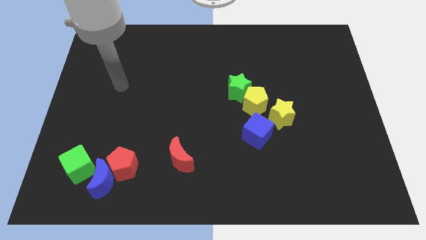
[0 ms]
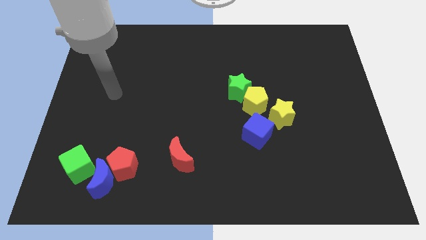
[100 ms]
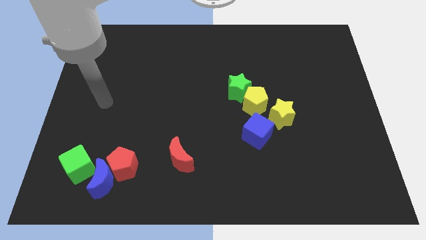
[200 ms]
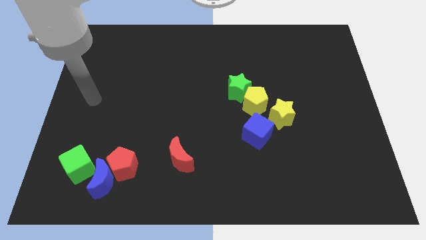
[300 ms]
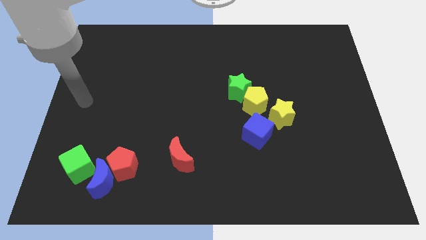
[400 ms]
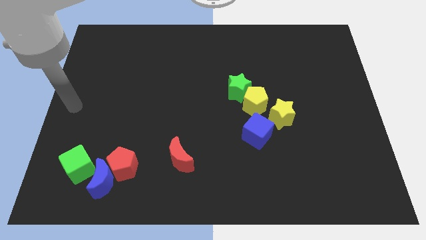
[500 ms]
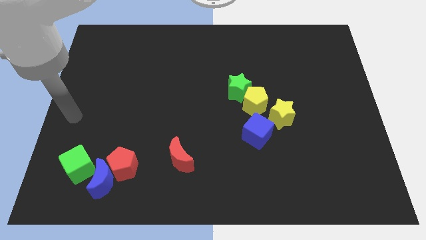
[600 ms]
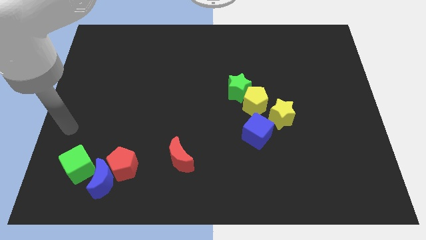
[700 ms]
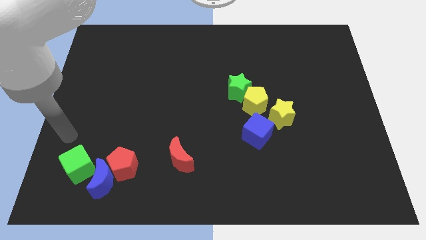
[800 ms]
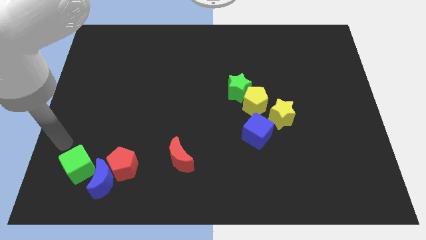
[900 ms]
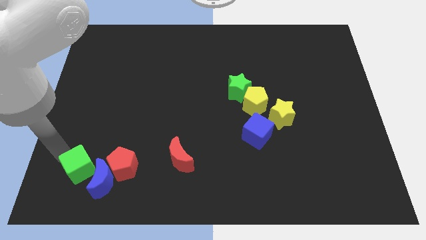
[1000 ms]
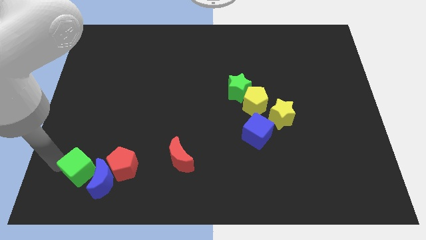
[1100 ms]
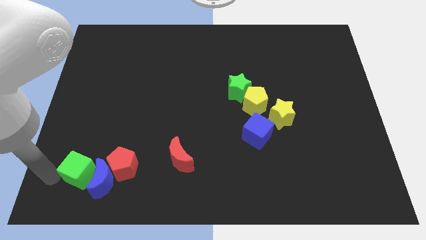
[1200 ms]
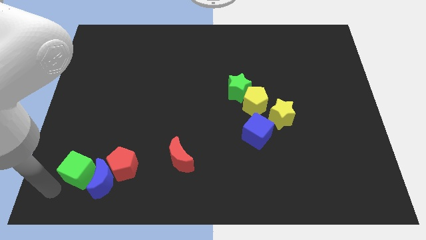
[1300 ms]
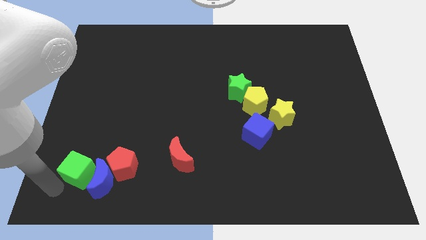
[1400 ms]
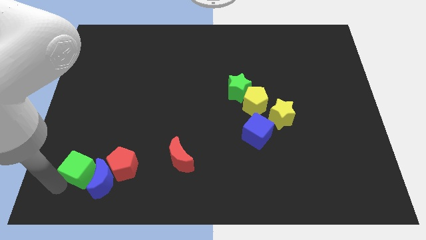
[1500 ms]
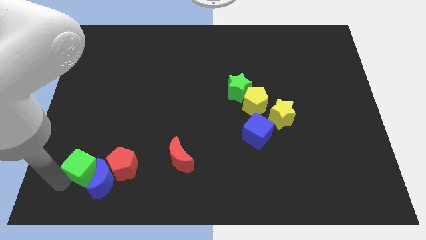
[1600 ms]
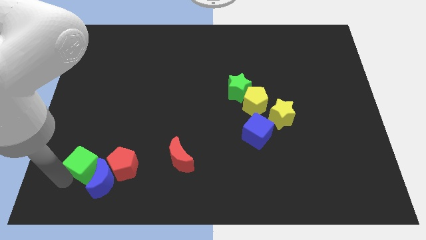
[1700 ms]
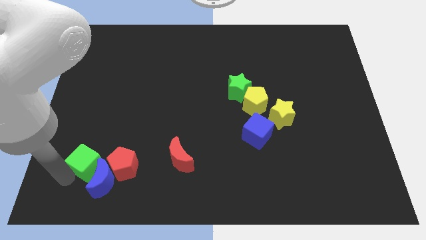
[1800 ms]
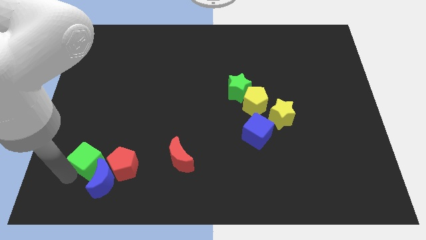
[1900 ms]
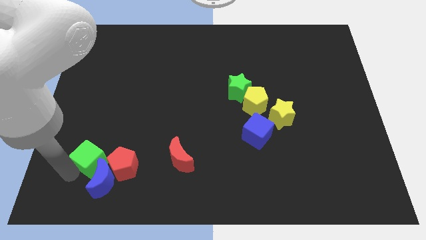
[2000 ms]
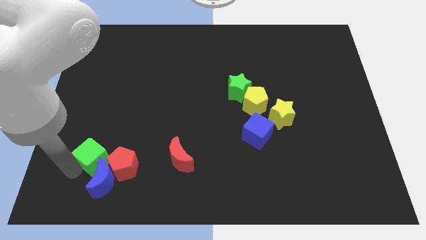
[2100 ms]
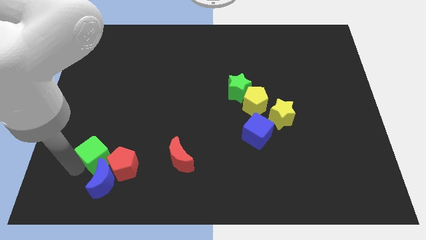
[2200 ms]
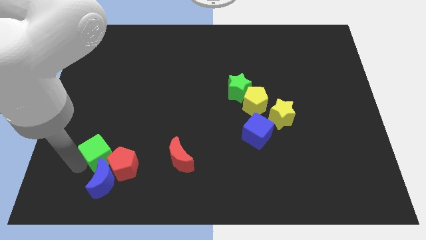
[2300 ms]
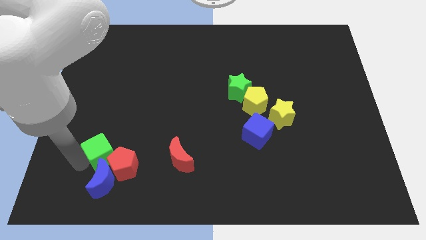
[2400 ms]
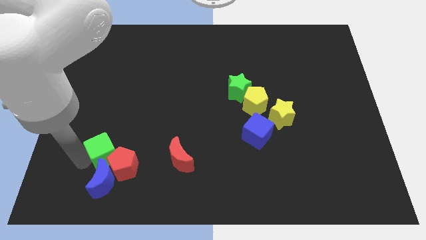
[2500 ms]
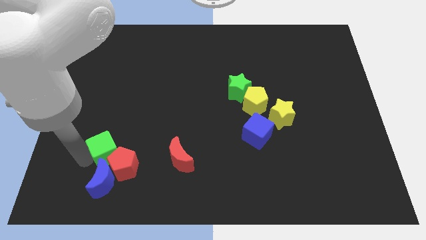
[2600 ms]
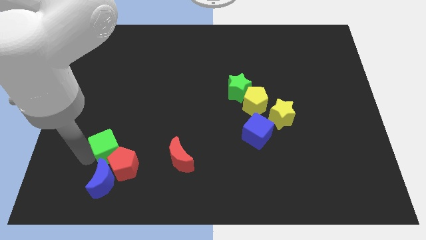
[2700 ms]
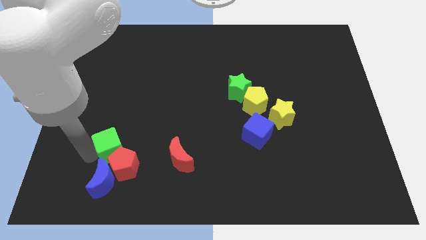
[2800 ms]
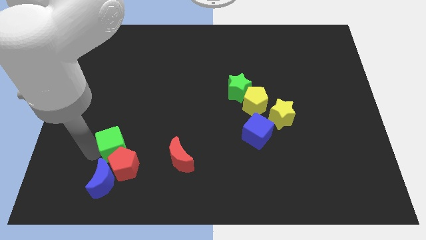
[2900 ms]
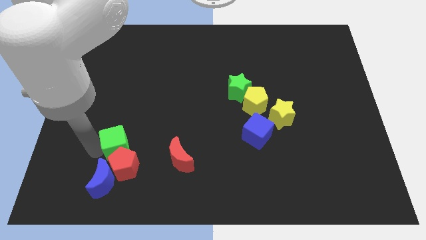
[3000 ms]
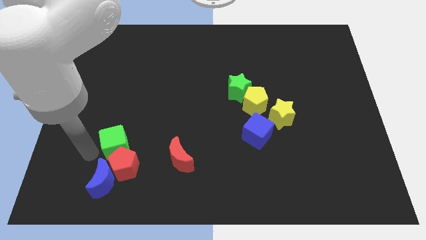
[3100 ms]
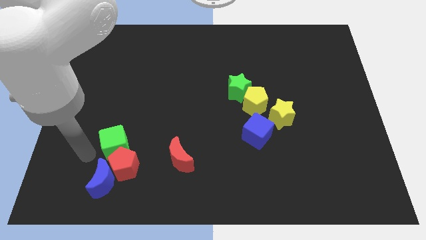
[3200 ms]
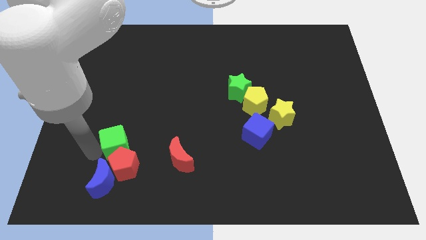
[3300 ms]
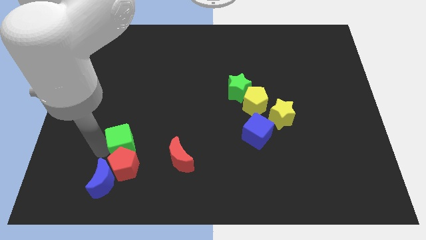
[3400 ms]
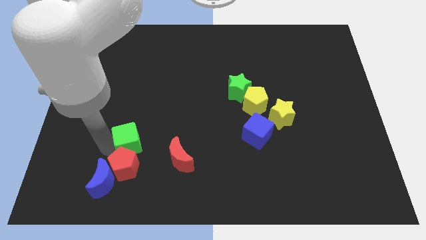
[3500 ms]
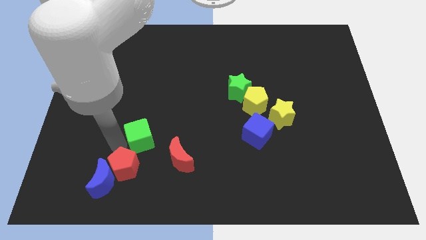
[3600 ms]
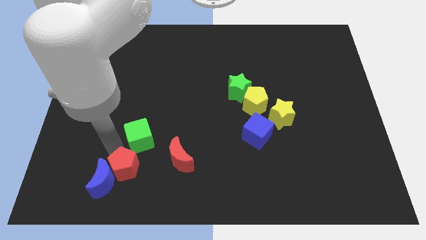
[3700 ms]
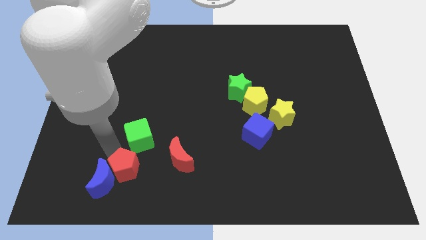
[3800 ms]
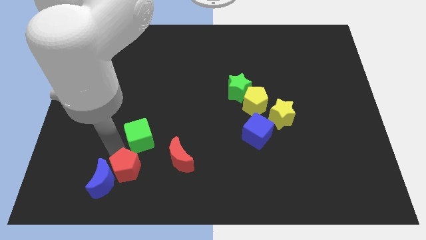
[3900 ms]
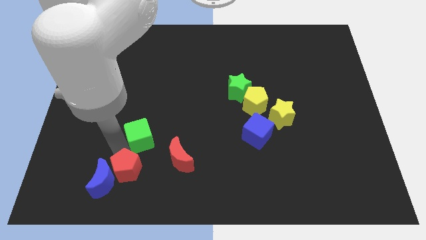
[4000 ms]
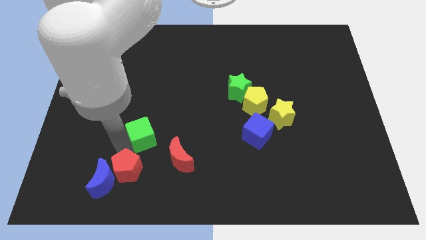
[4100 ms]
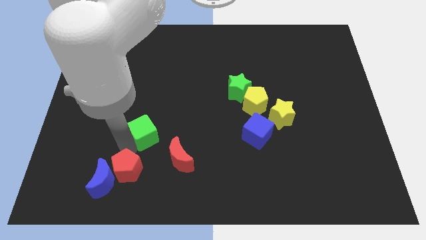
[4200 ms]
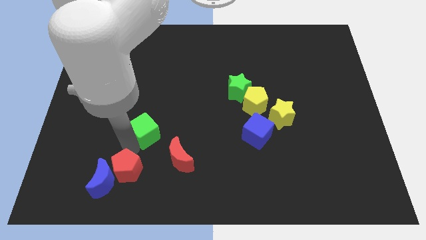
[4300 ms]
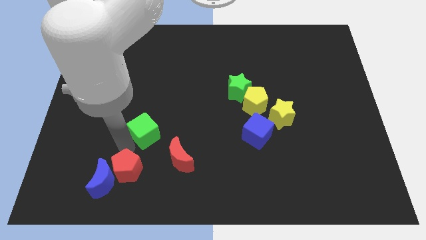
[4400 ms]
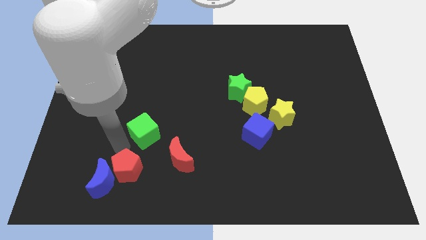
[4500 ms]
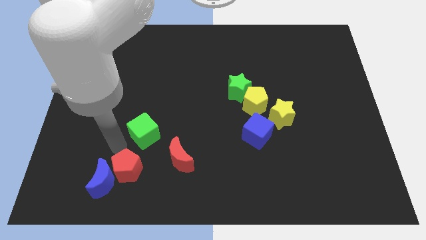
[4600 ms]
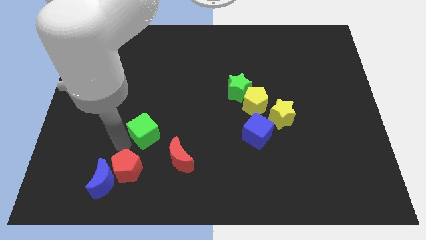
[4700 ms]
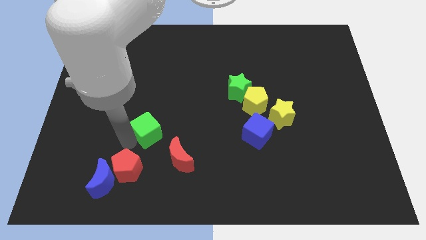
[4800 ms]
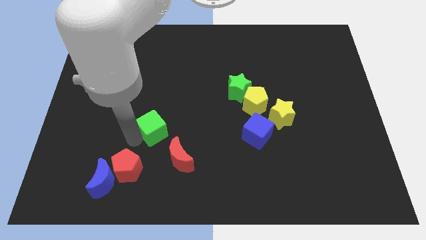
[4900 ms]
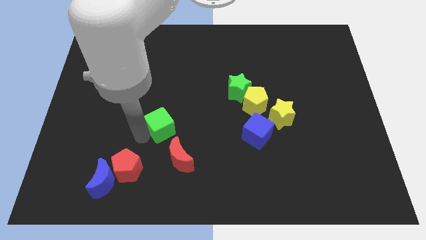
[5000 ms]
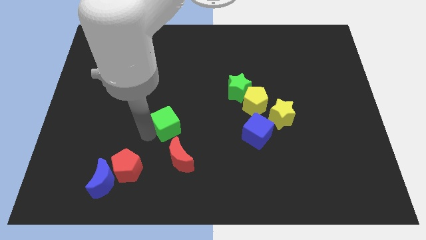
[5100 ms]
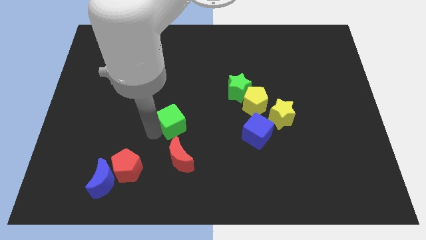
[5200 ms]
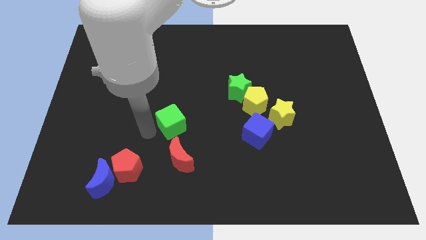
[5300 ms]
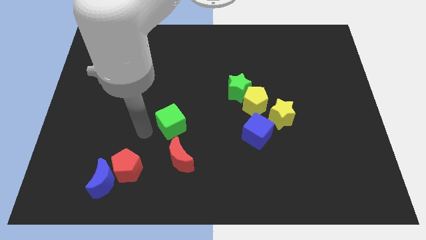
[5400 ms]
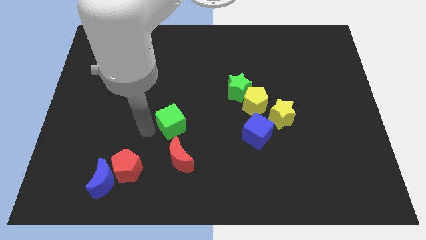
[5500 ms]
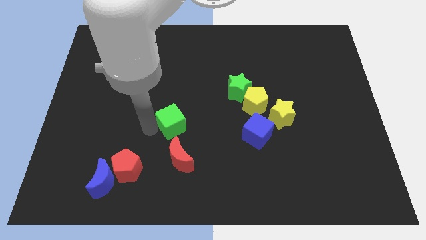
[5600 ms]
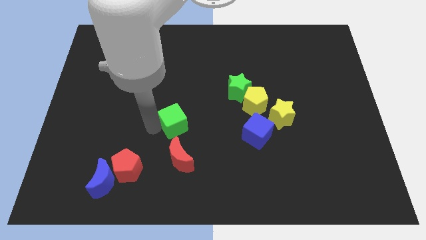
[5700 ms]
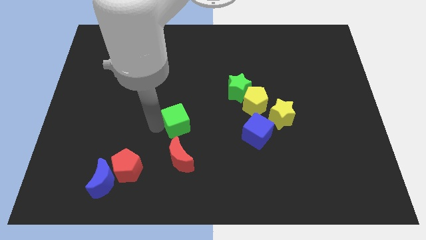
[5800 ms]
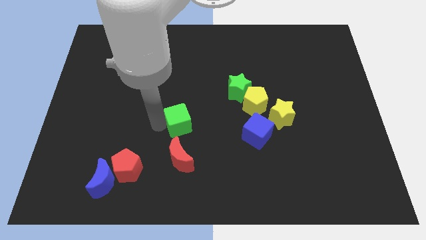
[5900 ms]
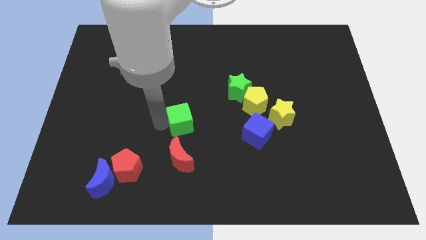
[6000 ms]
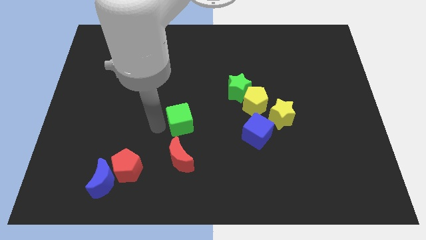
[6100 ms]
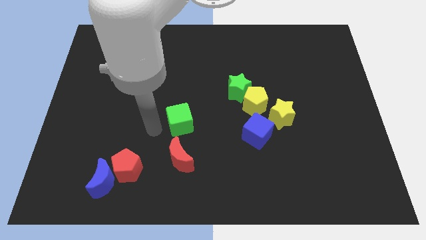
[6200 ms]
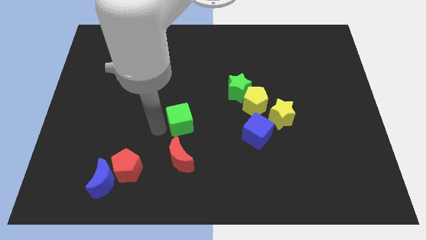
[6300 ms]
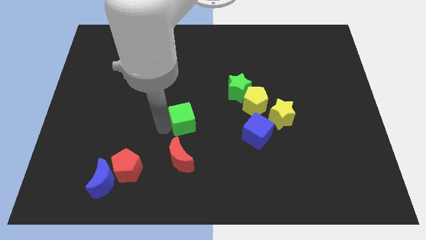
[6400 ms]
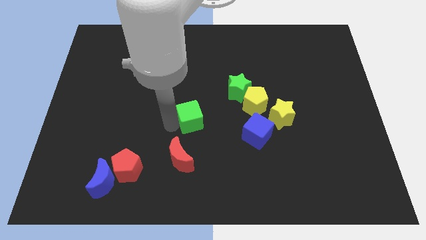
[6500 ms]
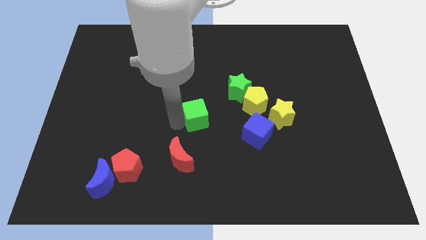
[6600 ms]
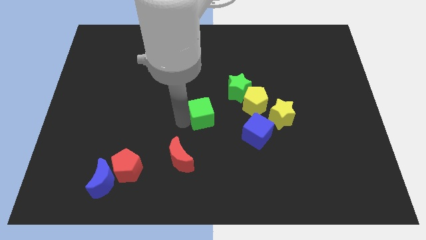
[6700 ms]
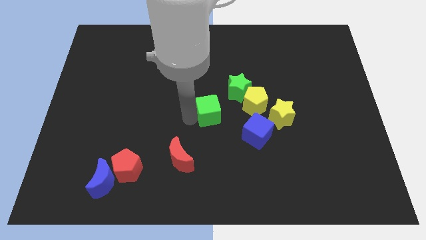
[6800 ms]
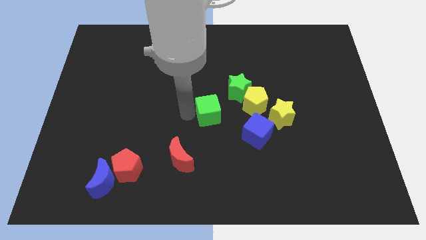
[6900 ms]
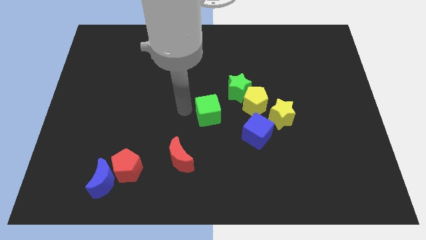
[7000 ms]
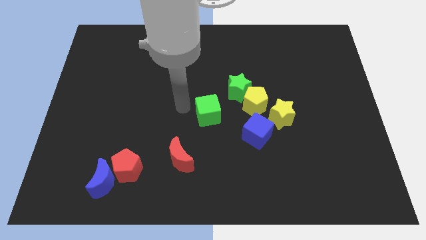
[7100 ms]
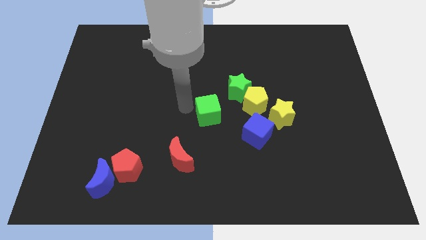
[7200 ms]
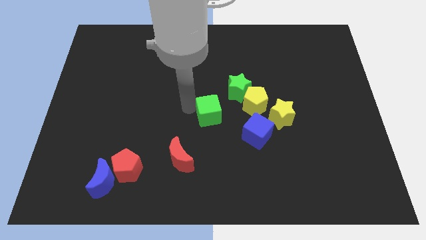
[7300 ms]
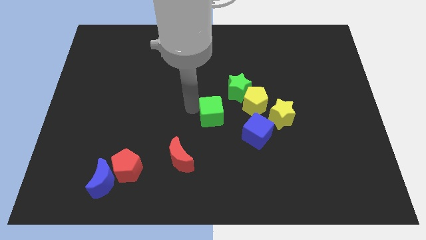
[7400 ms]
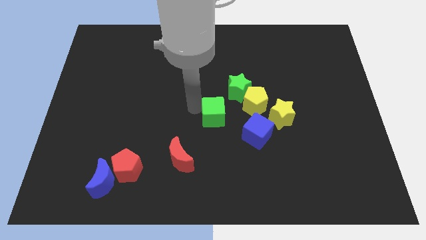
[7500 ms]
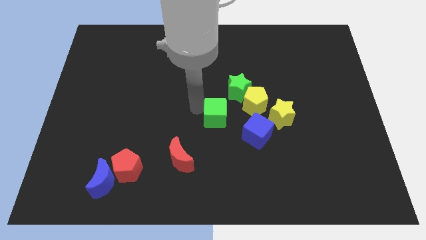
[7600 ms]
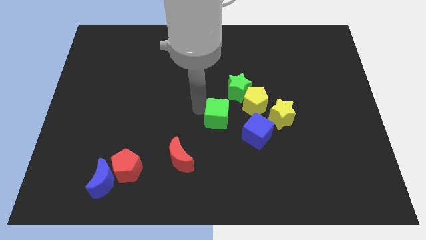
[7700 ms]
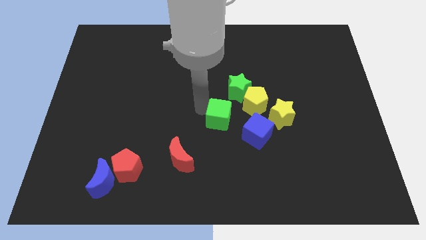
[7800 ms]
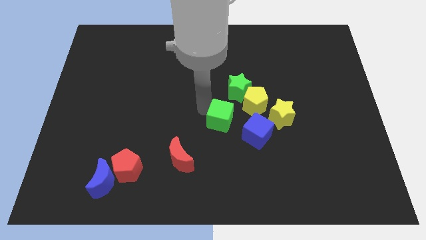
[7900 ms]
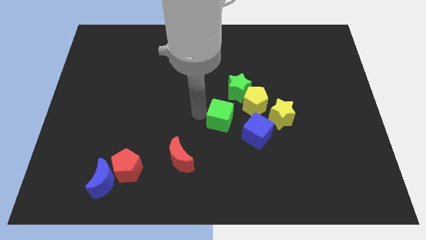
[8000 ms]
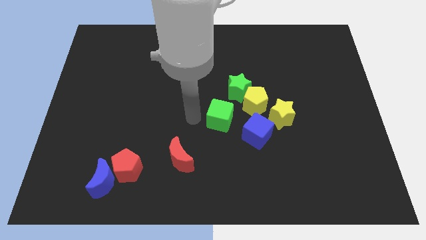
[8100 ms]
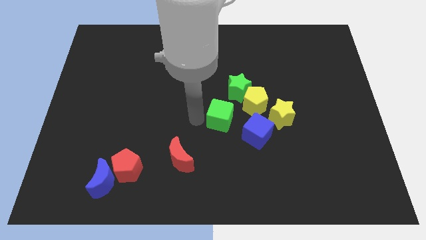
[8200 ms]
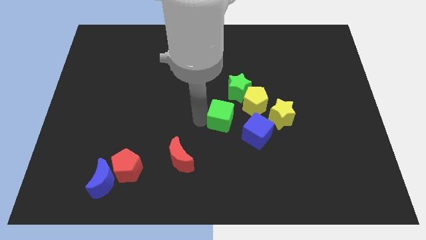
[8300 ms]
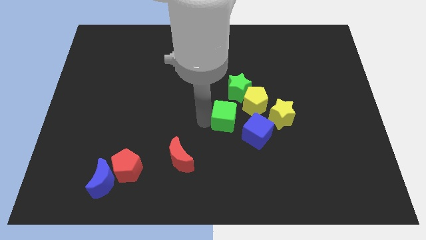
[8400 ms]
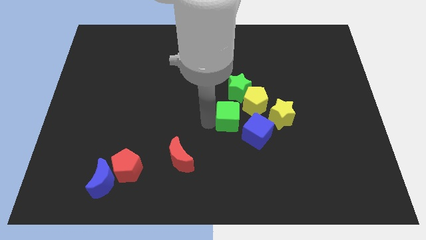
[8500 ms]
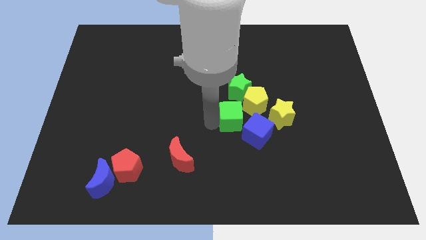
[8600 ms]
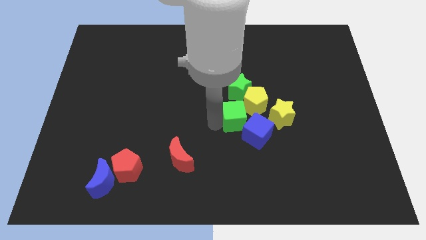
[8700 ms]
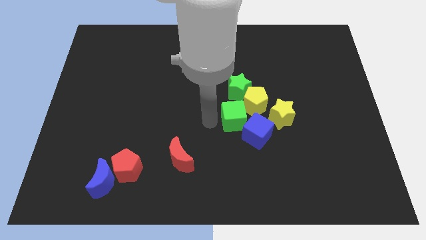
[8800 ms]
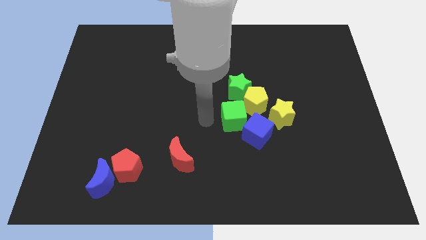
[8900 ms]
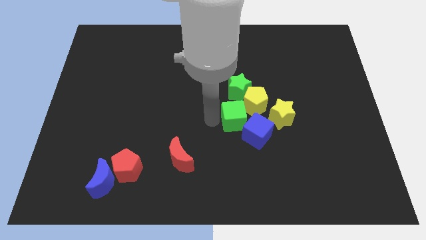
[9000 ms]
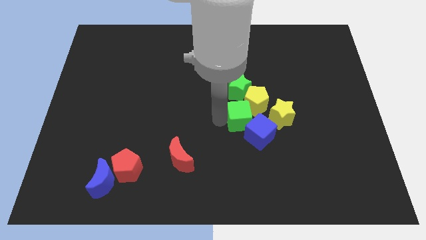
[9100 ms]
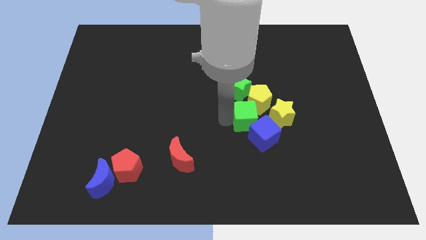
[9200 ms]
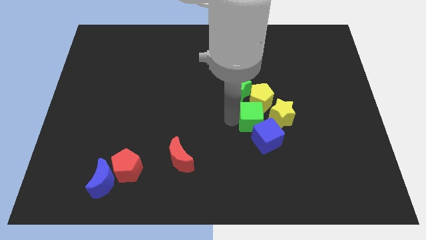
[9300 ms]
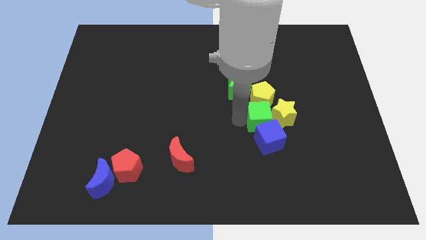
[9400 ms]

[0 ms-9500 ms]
move the green cube close to the yellow star
